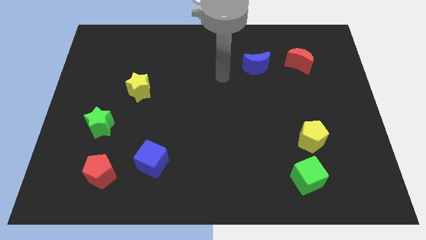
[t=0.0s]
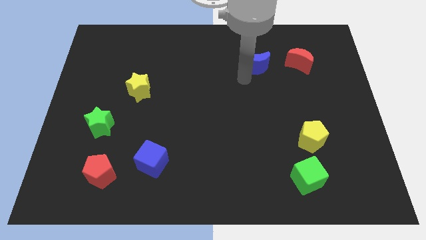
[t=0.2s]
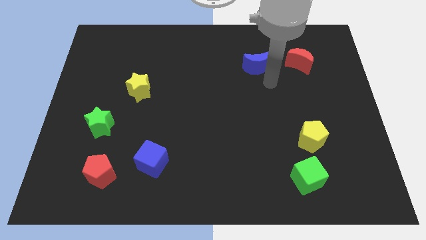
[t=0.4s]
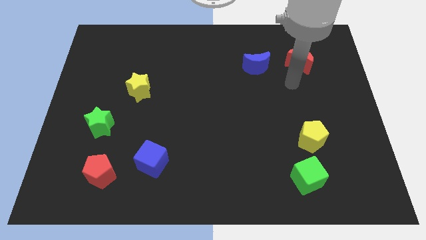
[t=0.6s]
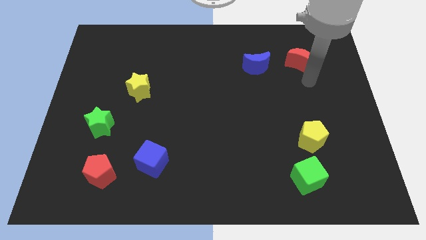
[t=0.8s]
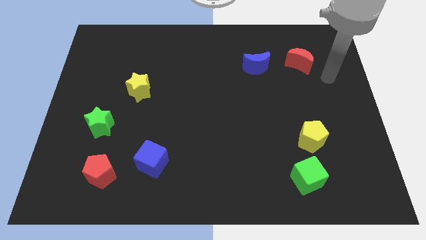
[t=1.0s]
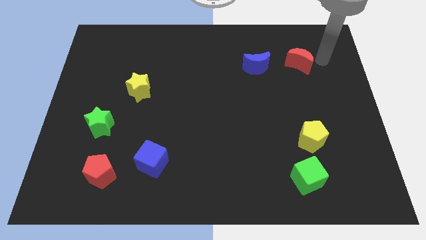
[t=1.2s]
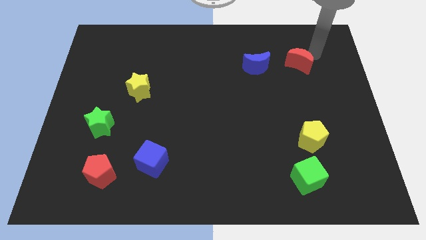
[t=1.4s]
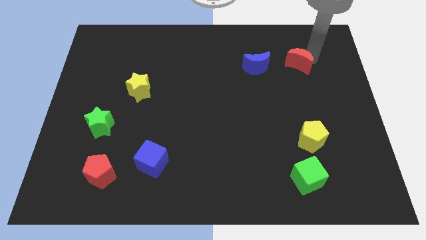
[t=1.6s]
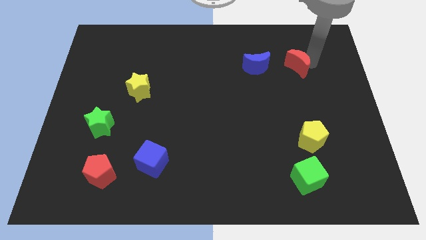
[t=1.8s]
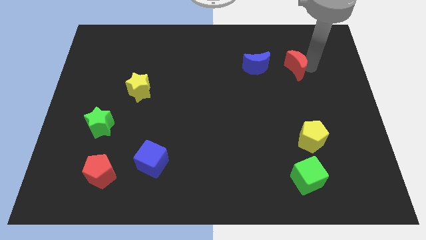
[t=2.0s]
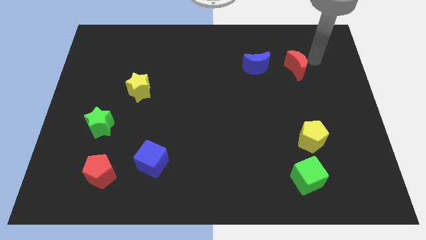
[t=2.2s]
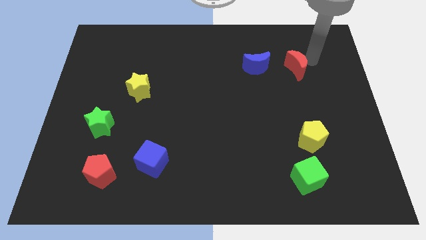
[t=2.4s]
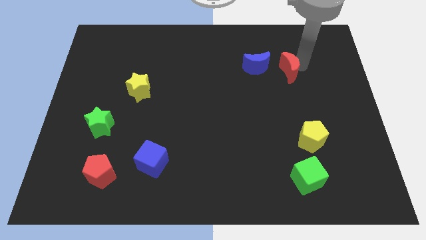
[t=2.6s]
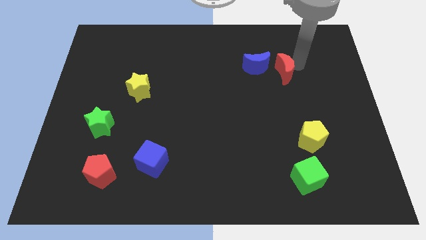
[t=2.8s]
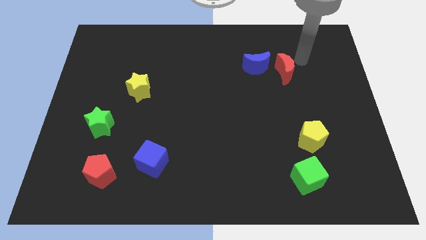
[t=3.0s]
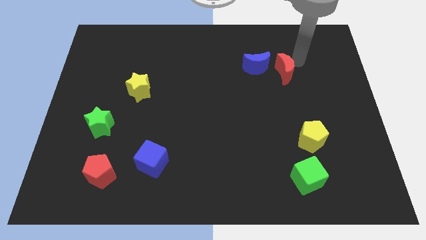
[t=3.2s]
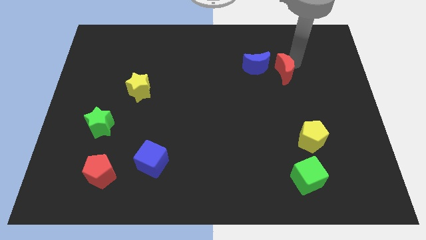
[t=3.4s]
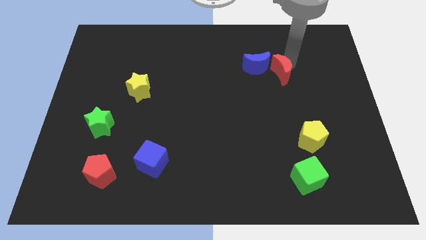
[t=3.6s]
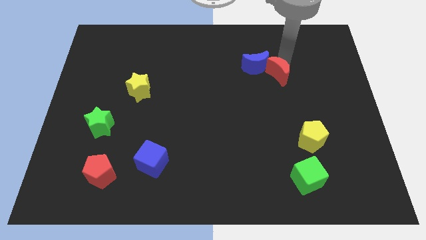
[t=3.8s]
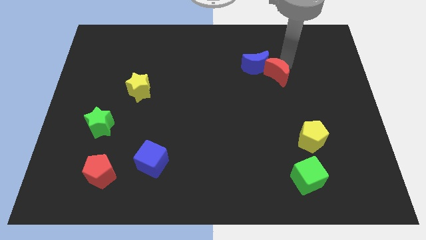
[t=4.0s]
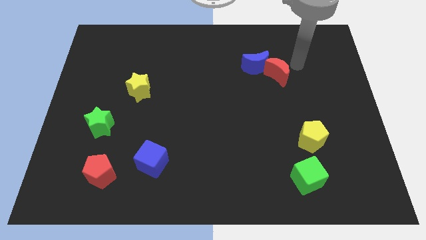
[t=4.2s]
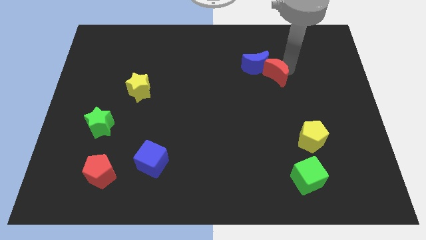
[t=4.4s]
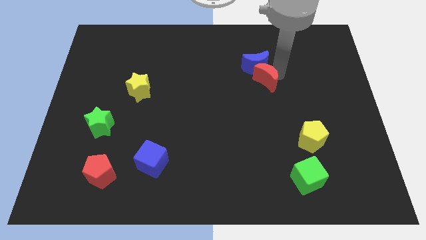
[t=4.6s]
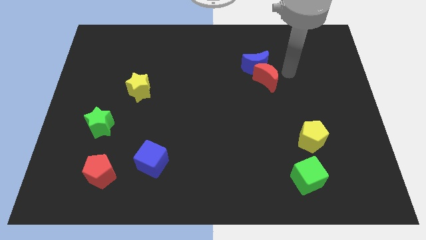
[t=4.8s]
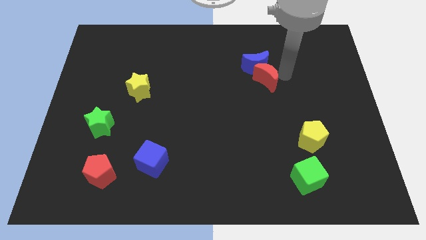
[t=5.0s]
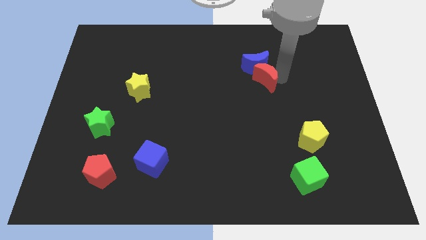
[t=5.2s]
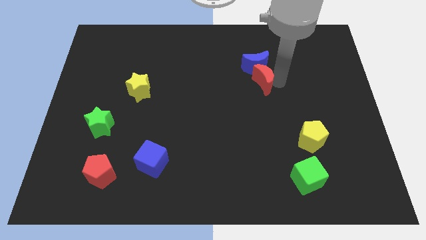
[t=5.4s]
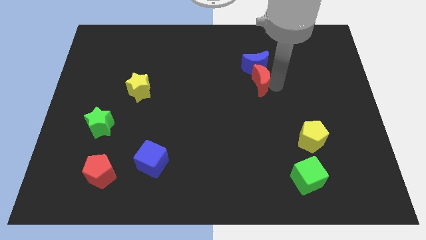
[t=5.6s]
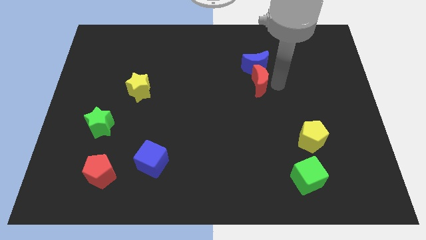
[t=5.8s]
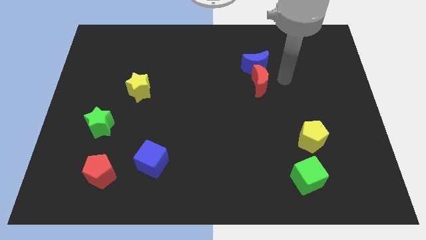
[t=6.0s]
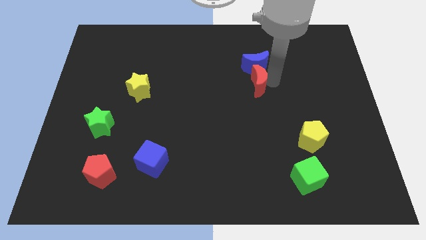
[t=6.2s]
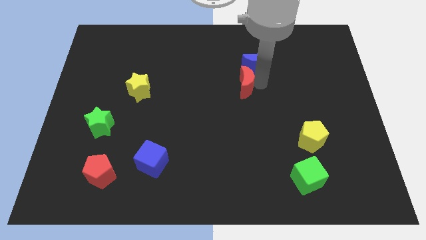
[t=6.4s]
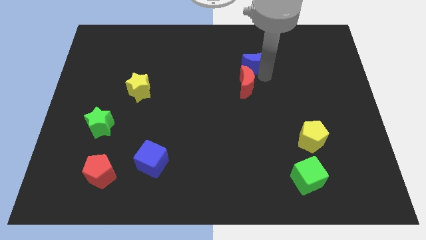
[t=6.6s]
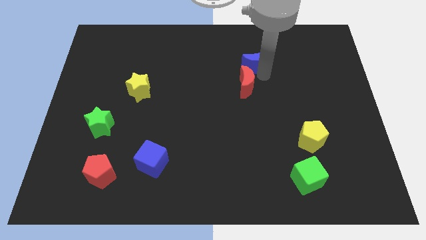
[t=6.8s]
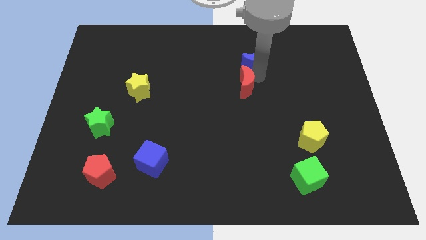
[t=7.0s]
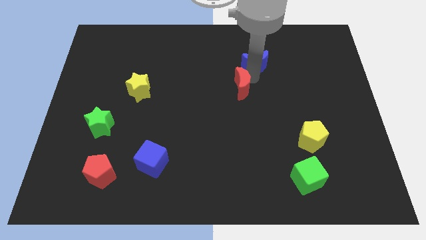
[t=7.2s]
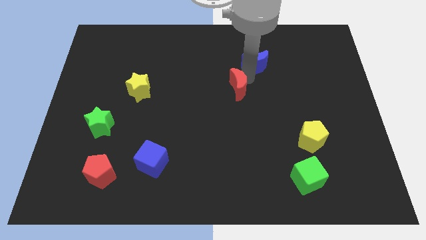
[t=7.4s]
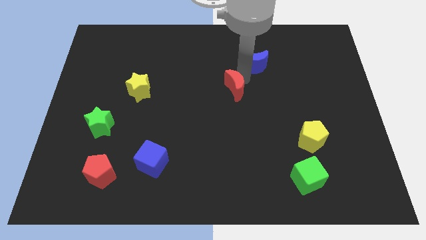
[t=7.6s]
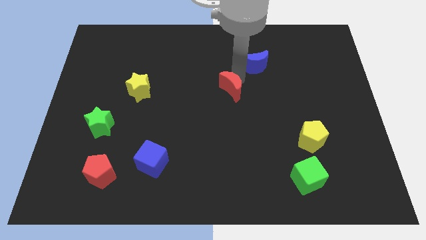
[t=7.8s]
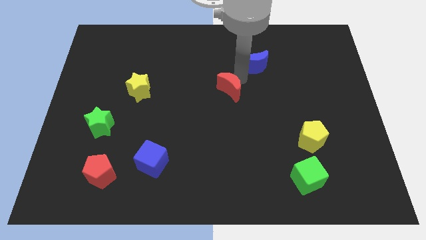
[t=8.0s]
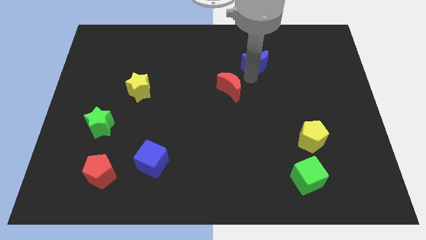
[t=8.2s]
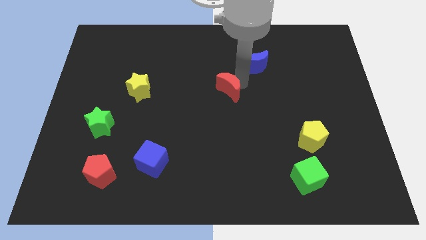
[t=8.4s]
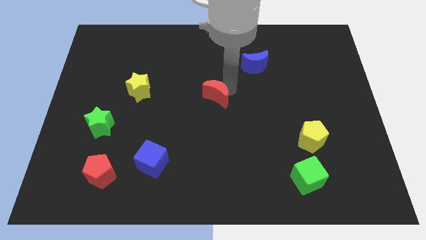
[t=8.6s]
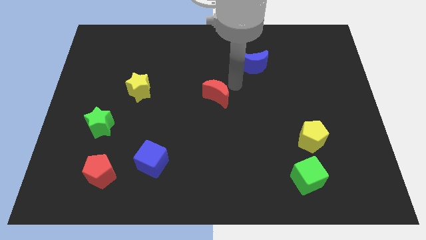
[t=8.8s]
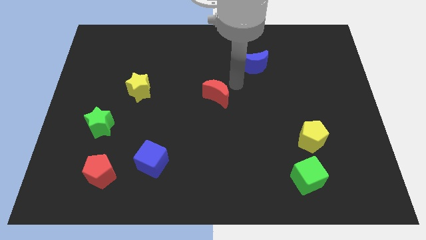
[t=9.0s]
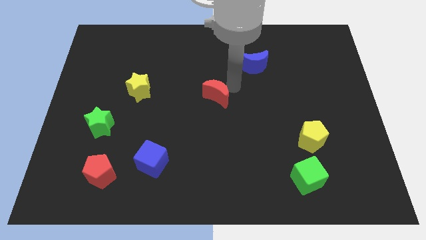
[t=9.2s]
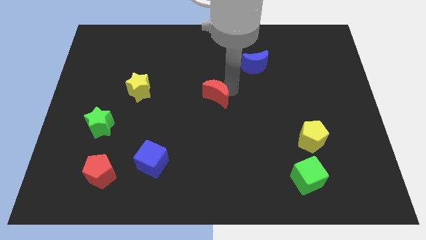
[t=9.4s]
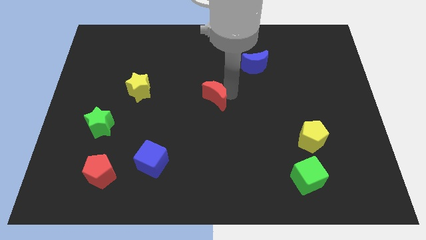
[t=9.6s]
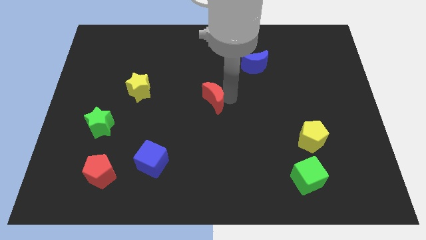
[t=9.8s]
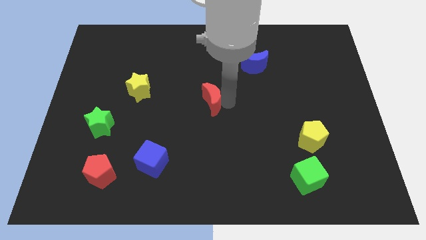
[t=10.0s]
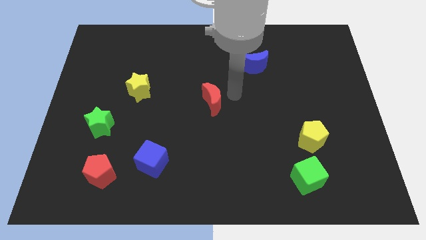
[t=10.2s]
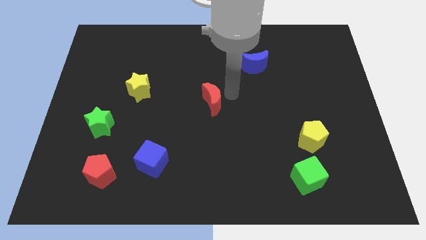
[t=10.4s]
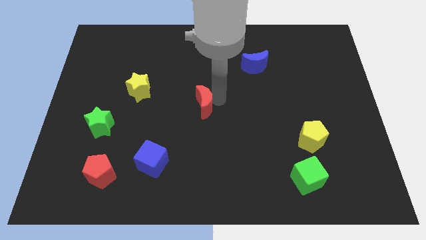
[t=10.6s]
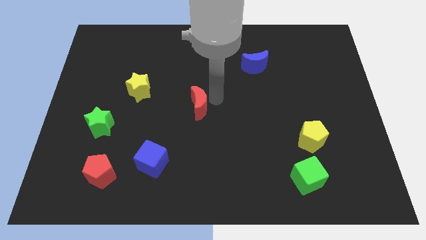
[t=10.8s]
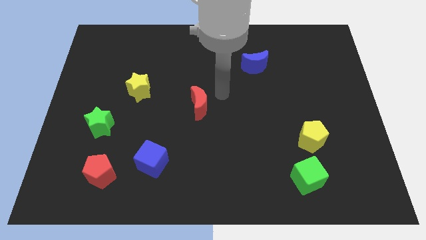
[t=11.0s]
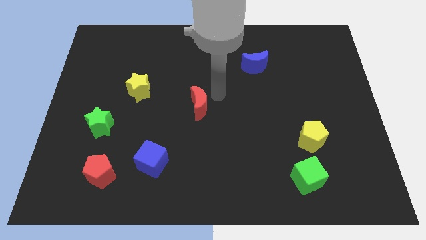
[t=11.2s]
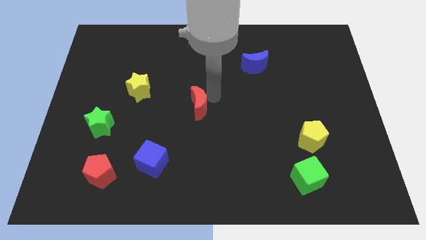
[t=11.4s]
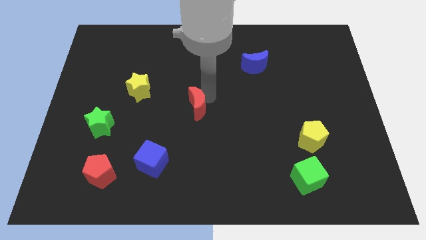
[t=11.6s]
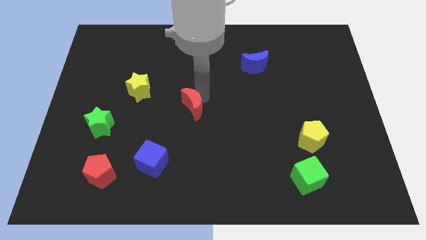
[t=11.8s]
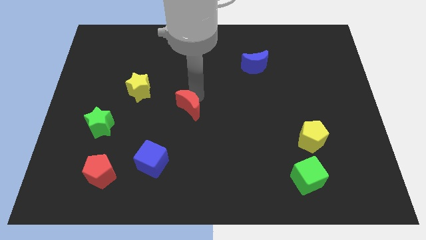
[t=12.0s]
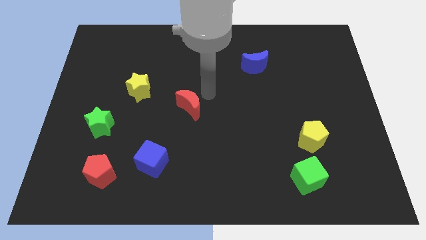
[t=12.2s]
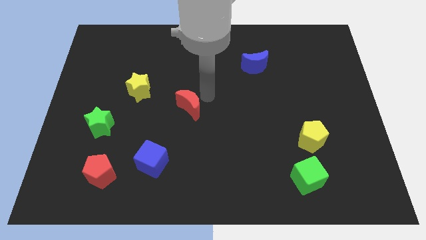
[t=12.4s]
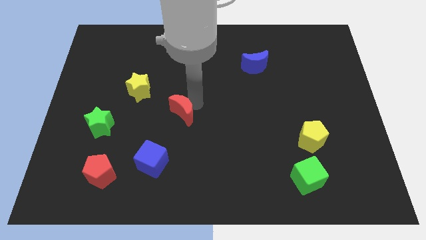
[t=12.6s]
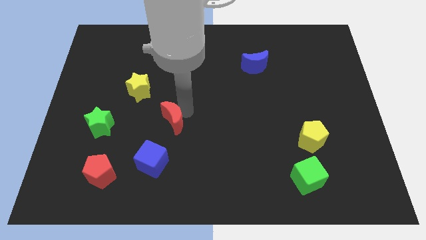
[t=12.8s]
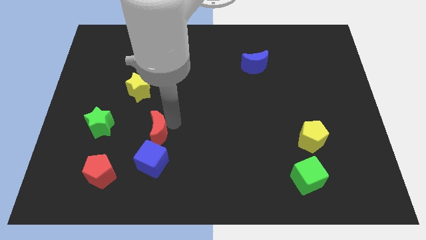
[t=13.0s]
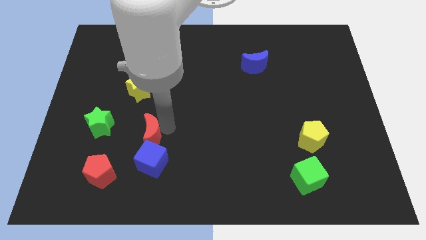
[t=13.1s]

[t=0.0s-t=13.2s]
slide the red moon to the top left side of the blue cube
